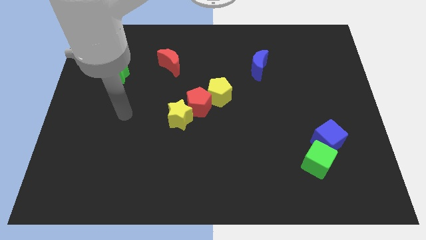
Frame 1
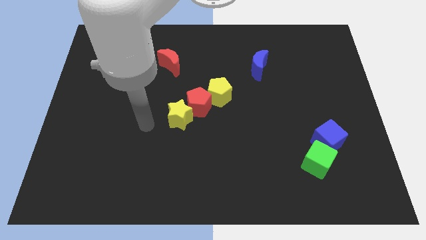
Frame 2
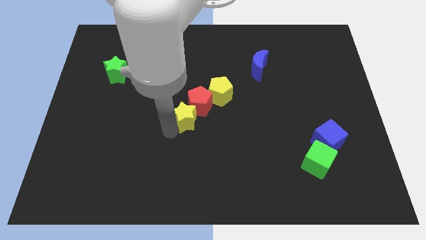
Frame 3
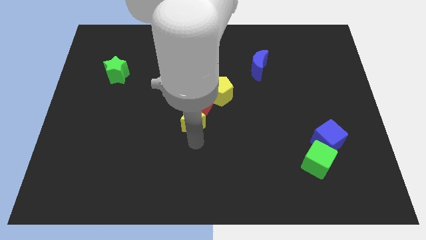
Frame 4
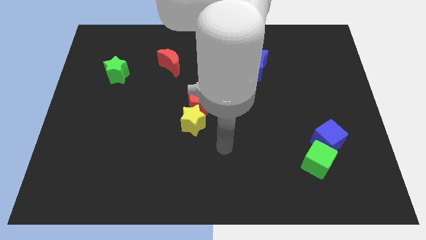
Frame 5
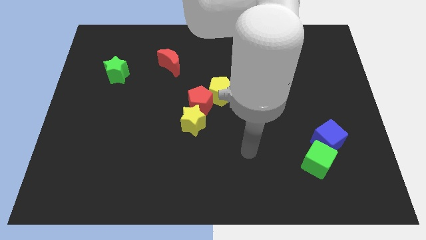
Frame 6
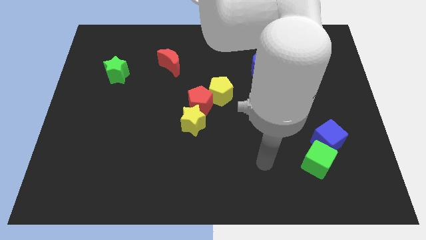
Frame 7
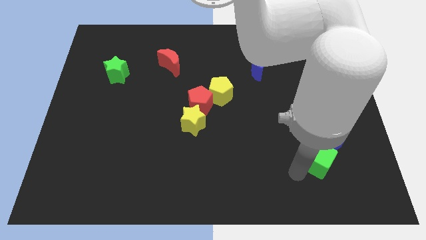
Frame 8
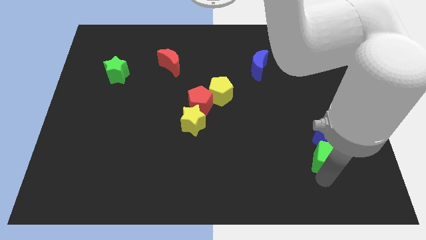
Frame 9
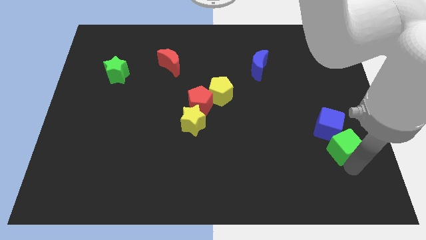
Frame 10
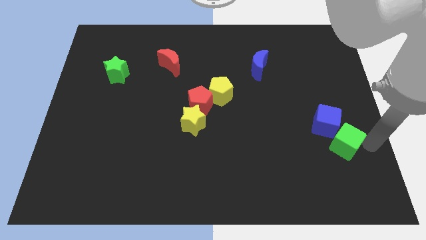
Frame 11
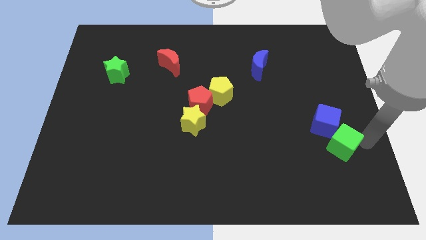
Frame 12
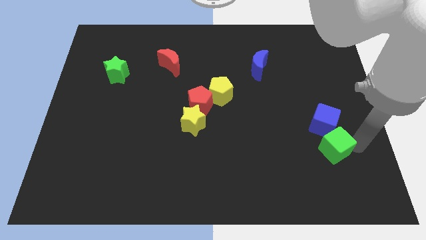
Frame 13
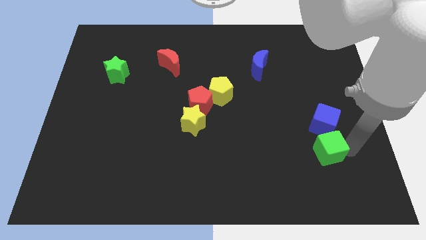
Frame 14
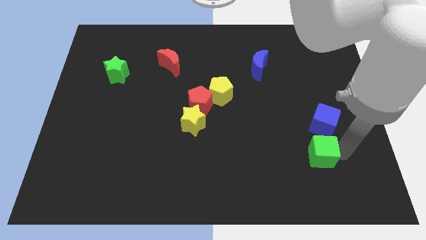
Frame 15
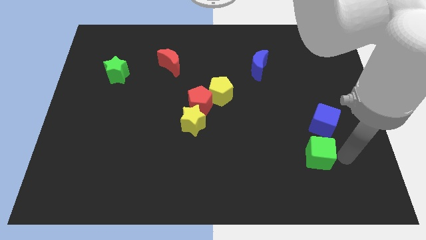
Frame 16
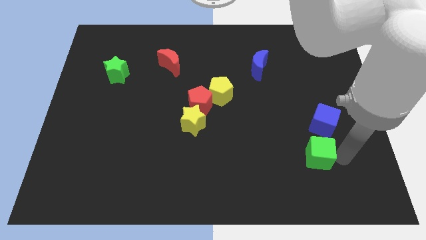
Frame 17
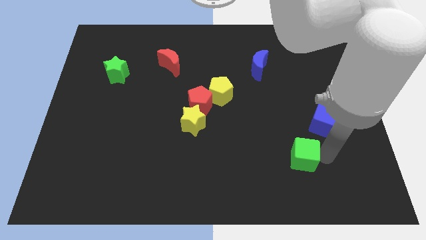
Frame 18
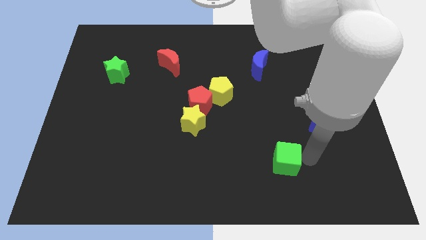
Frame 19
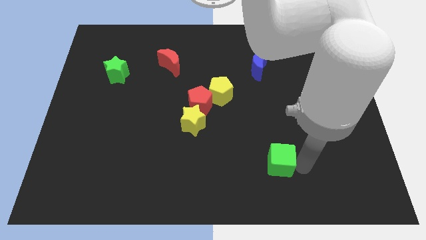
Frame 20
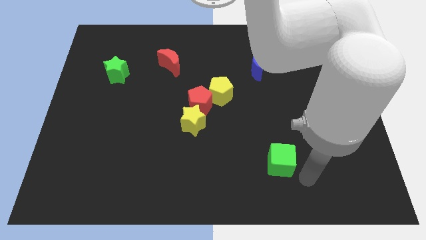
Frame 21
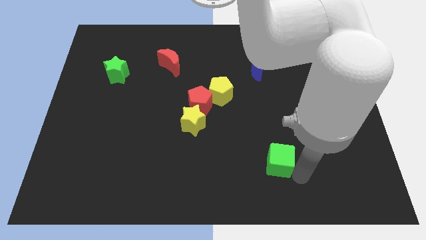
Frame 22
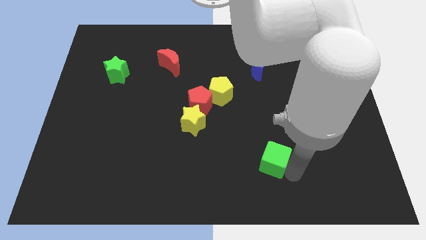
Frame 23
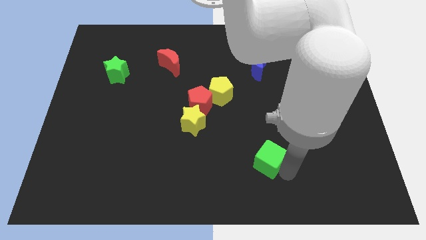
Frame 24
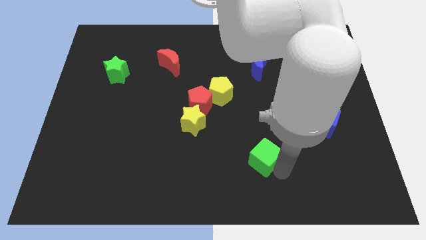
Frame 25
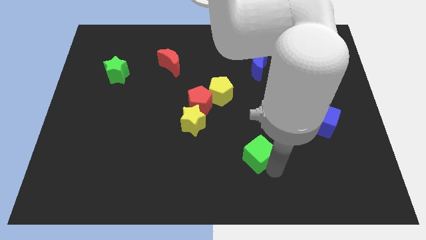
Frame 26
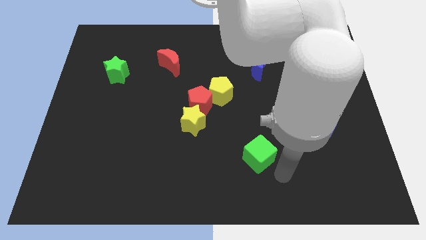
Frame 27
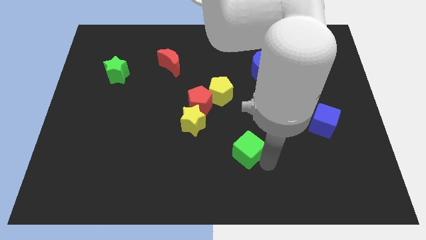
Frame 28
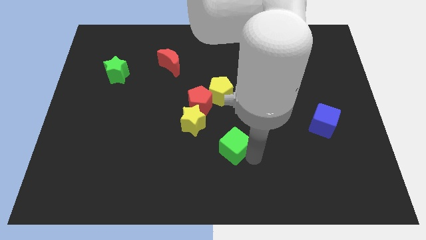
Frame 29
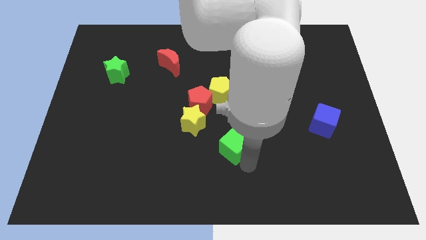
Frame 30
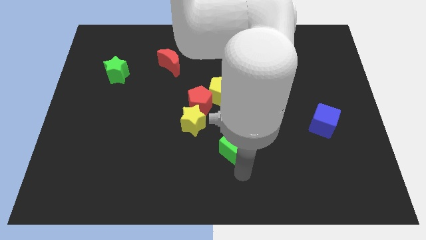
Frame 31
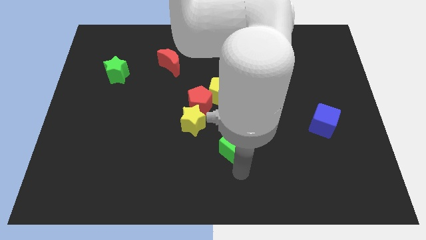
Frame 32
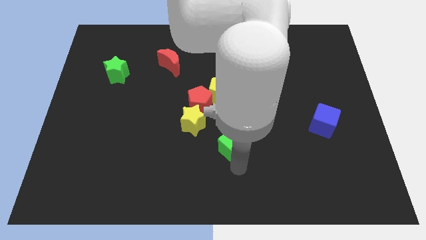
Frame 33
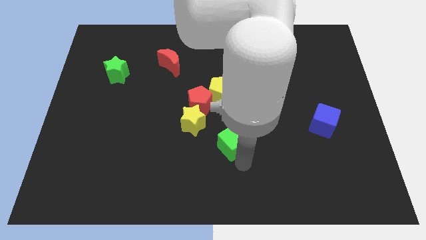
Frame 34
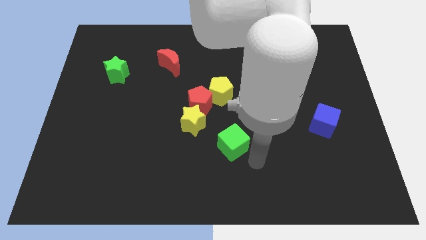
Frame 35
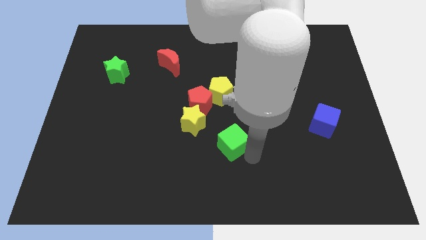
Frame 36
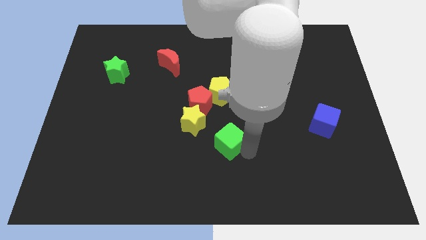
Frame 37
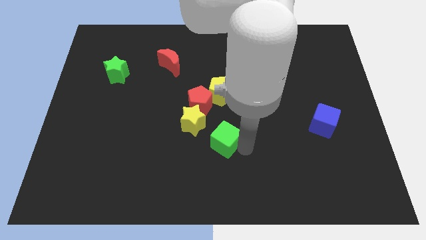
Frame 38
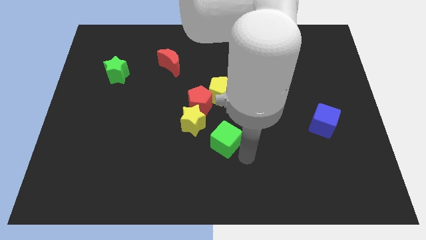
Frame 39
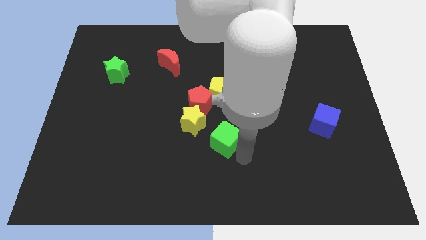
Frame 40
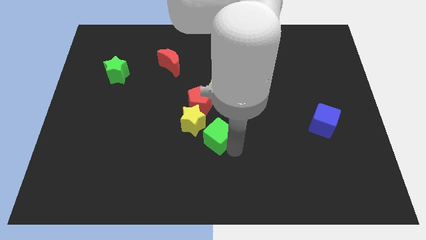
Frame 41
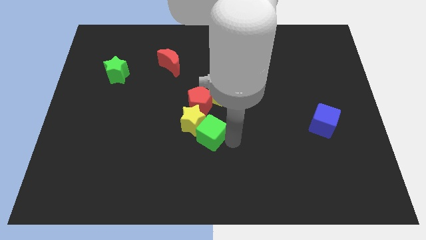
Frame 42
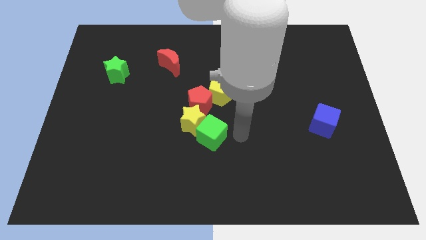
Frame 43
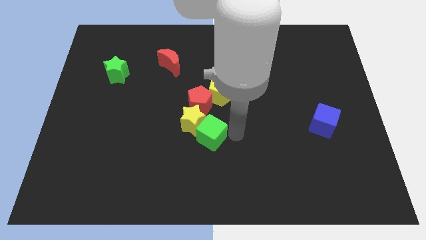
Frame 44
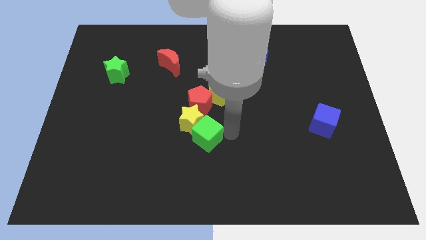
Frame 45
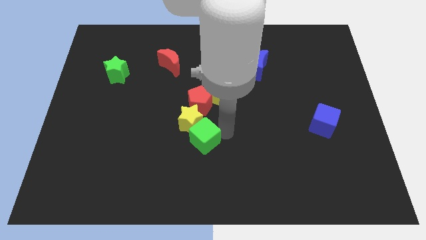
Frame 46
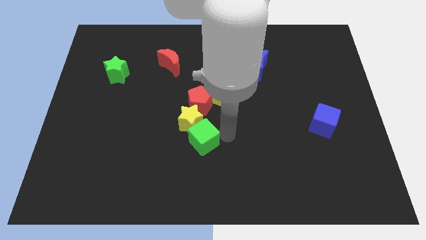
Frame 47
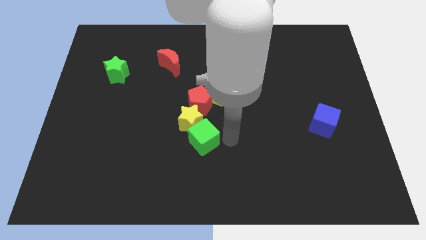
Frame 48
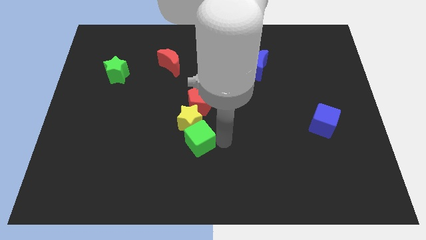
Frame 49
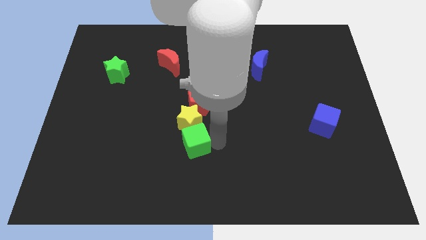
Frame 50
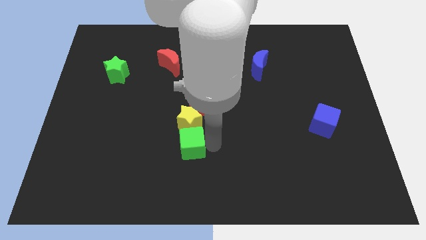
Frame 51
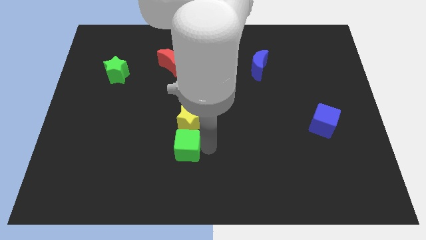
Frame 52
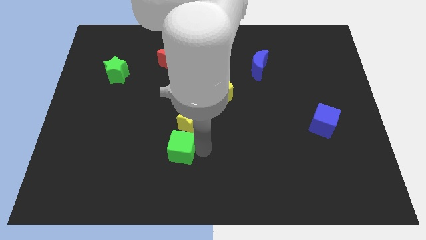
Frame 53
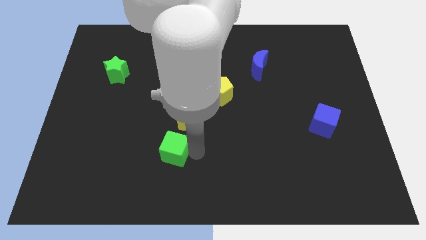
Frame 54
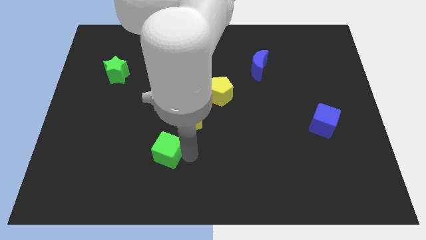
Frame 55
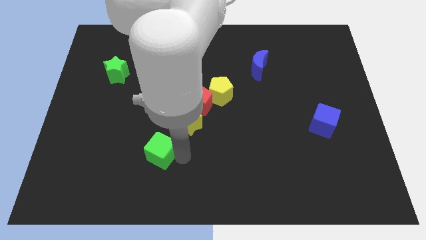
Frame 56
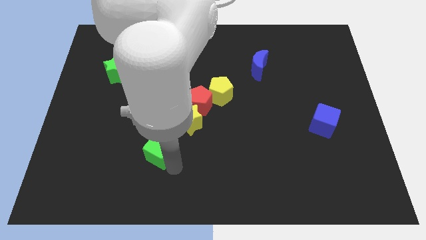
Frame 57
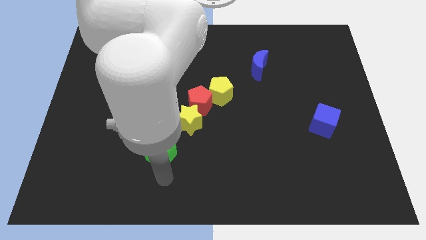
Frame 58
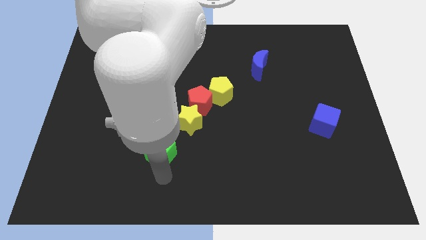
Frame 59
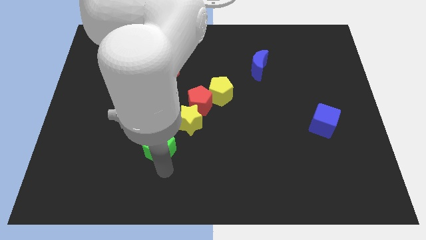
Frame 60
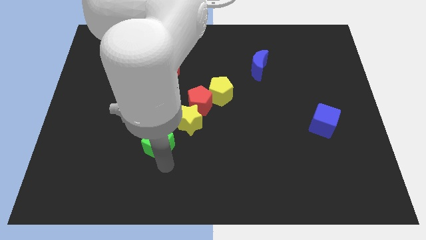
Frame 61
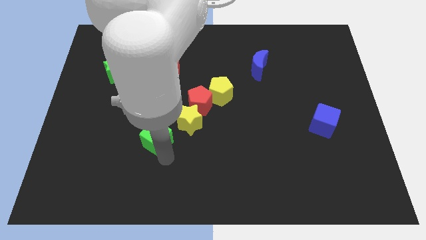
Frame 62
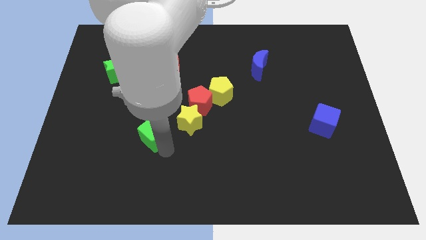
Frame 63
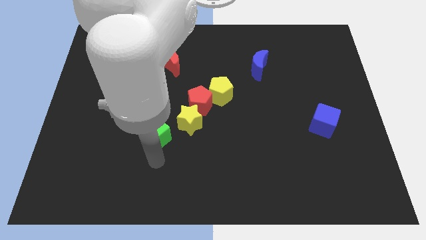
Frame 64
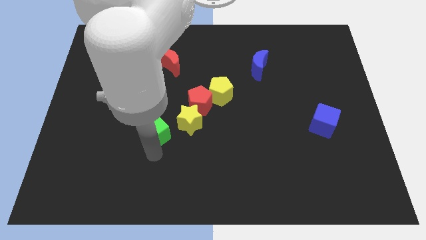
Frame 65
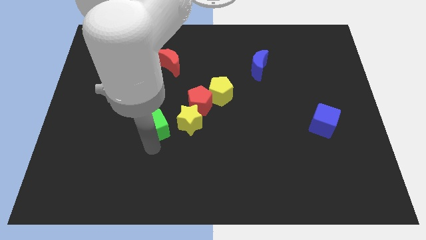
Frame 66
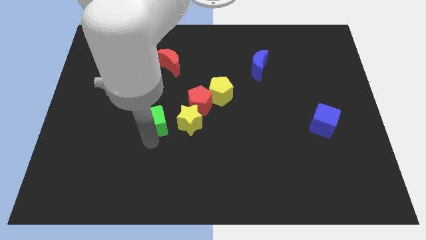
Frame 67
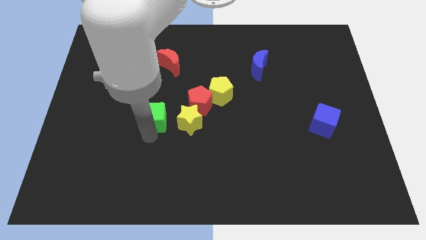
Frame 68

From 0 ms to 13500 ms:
push the green cube just left of the red pentagon

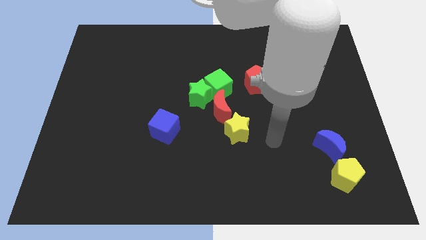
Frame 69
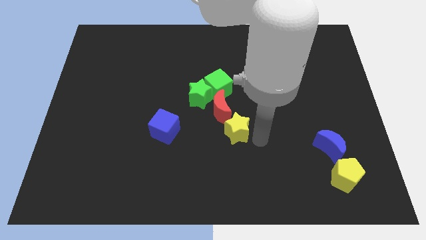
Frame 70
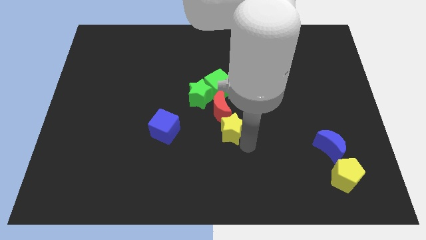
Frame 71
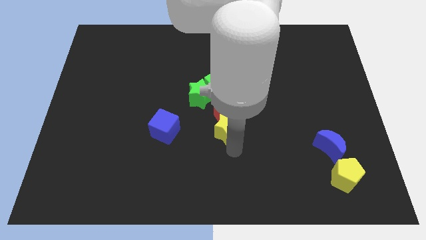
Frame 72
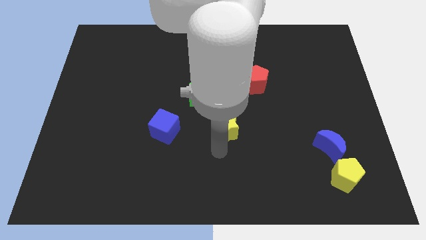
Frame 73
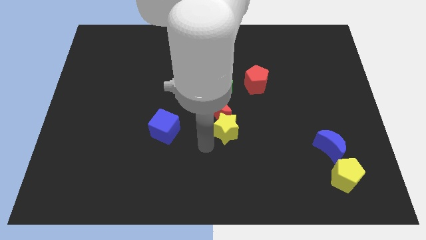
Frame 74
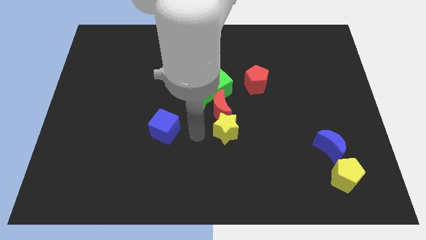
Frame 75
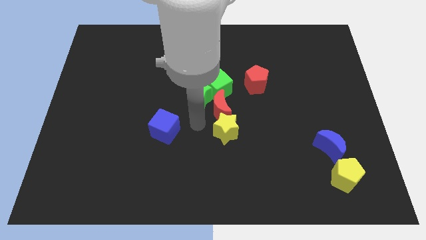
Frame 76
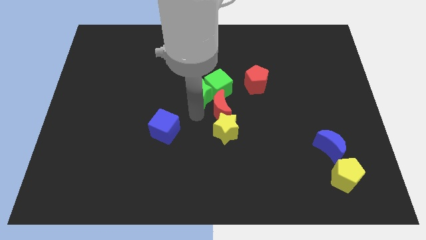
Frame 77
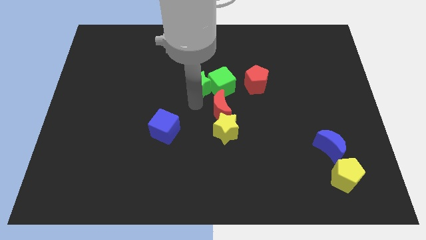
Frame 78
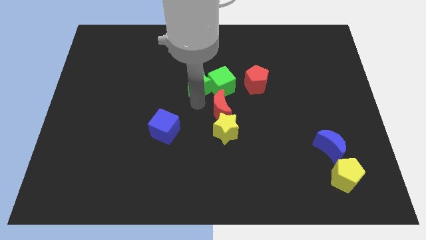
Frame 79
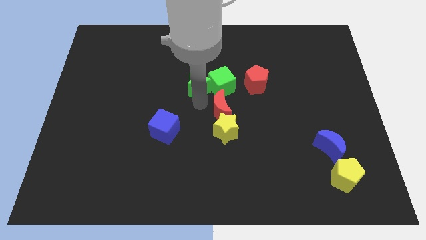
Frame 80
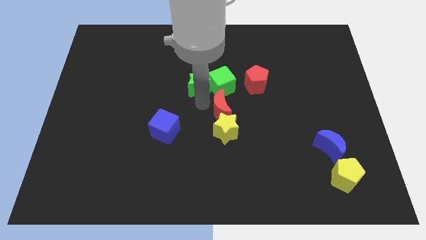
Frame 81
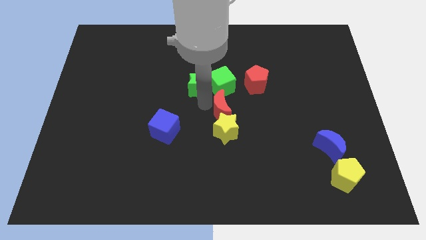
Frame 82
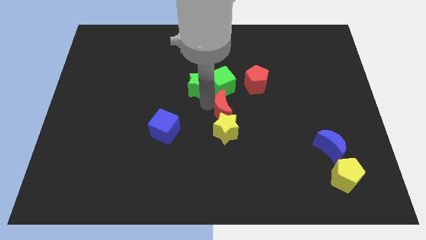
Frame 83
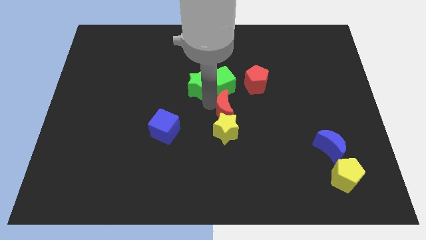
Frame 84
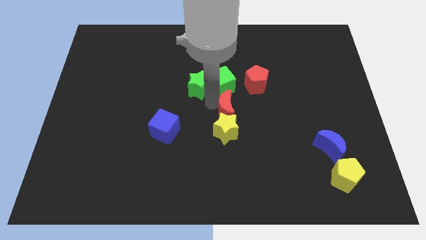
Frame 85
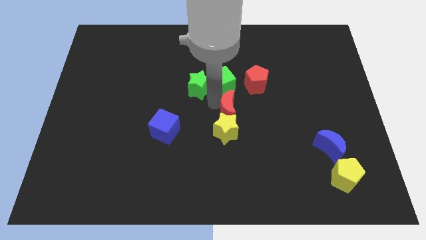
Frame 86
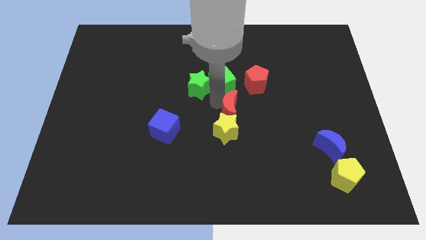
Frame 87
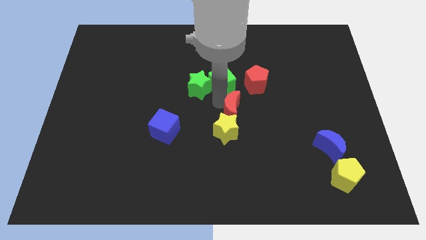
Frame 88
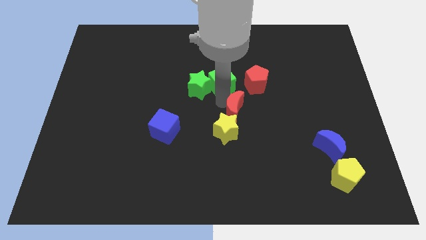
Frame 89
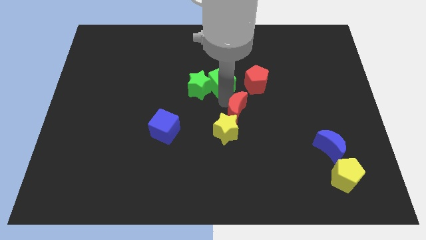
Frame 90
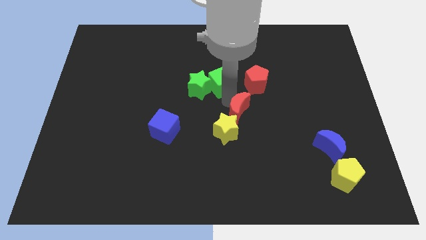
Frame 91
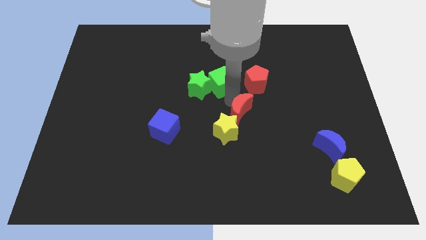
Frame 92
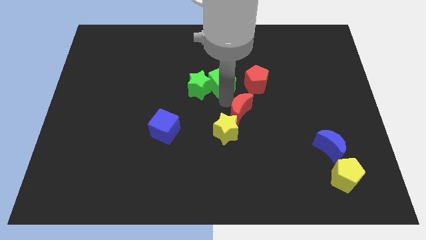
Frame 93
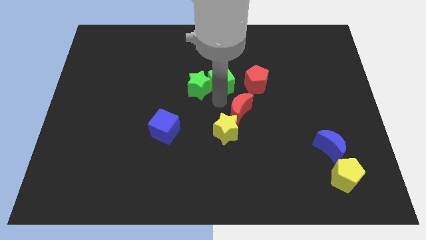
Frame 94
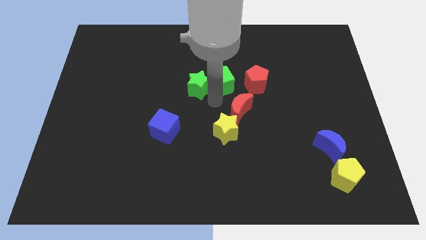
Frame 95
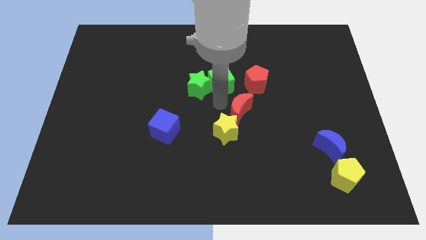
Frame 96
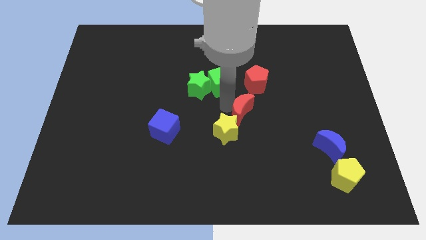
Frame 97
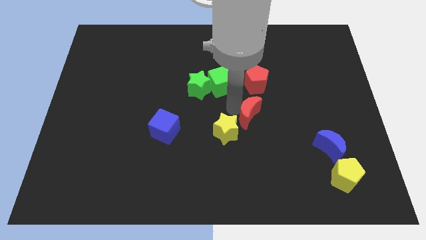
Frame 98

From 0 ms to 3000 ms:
slide the red moon to the right side of the yellow star
